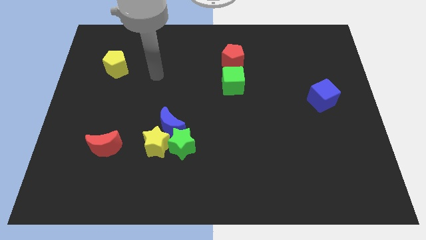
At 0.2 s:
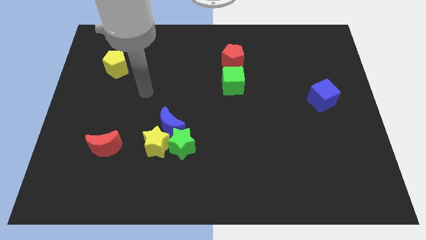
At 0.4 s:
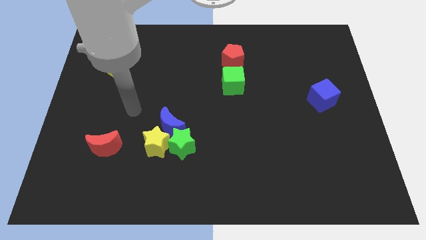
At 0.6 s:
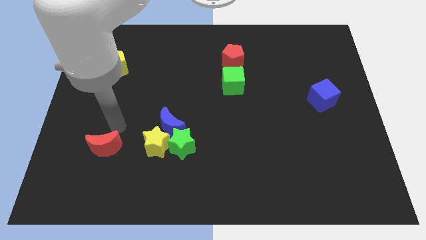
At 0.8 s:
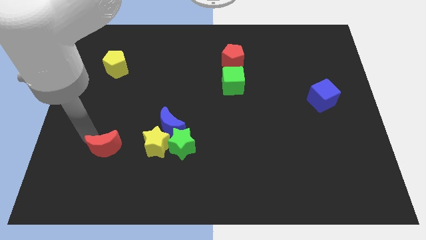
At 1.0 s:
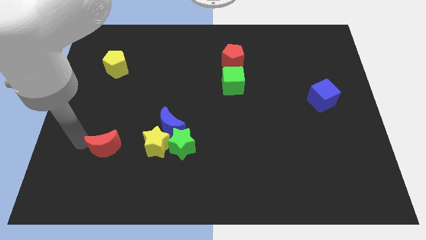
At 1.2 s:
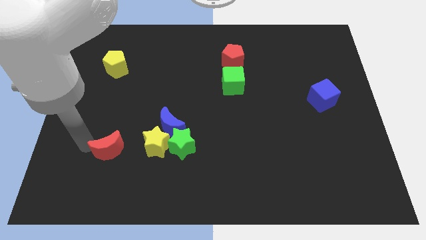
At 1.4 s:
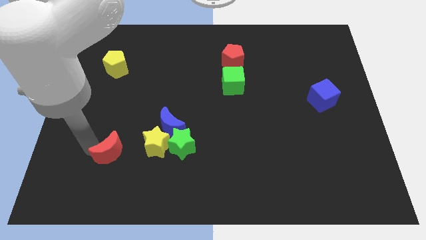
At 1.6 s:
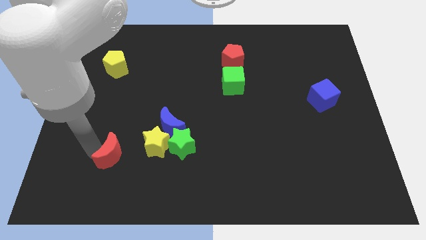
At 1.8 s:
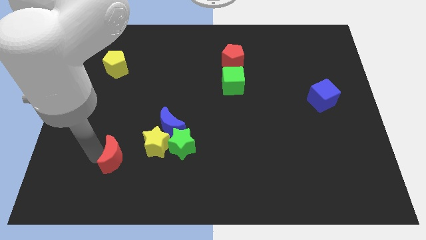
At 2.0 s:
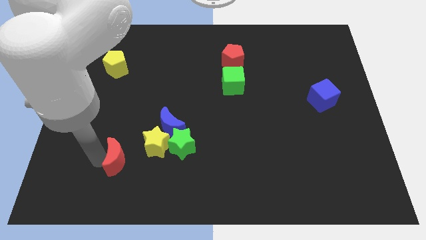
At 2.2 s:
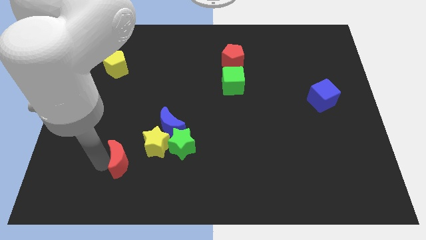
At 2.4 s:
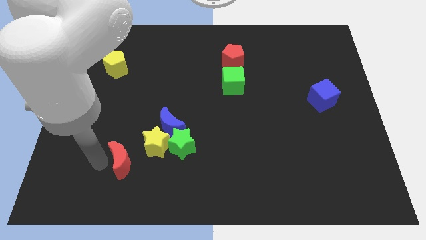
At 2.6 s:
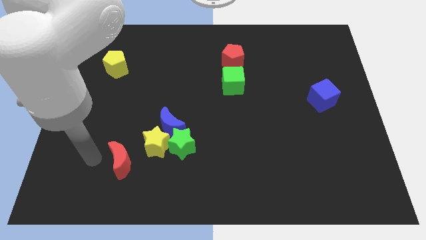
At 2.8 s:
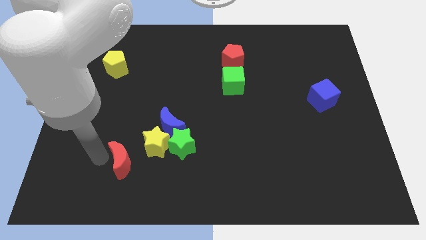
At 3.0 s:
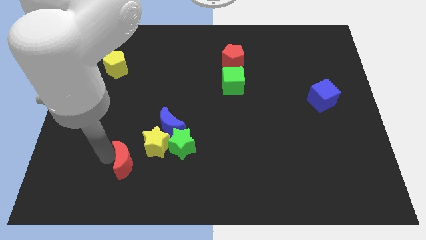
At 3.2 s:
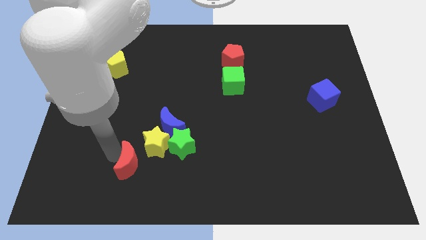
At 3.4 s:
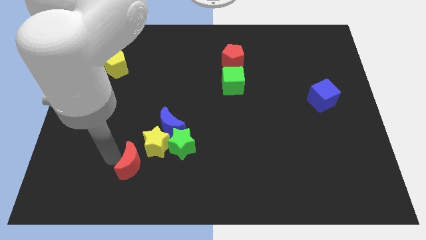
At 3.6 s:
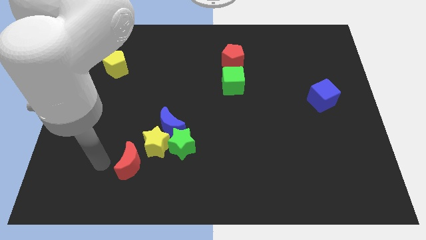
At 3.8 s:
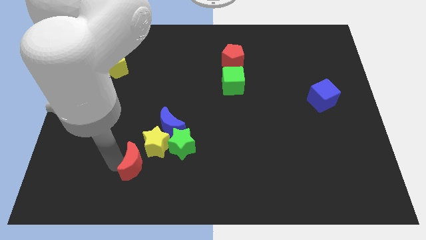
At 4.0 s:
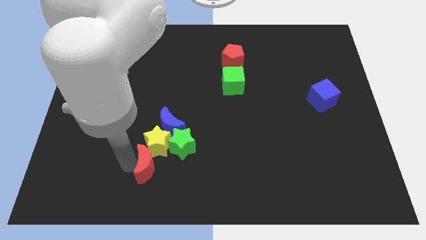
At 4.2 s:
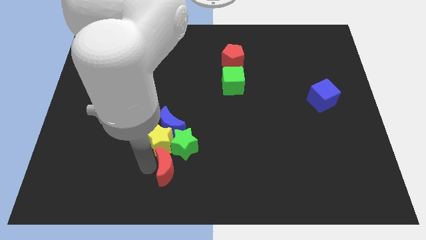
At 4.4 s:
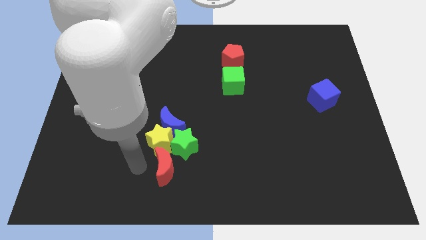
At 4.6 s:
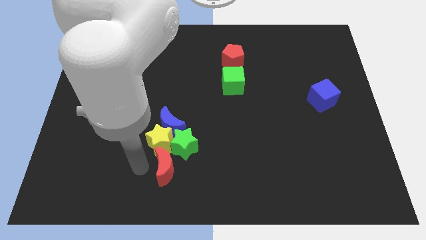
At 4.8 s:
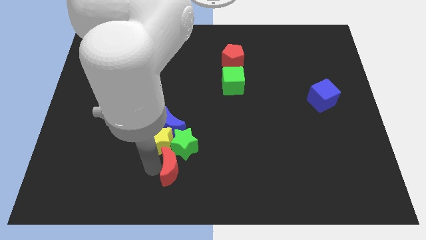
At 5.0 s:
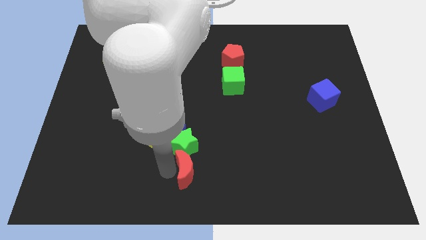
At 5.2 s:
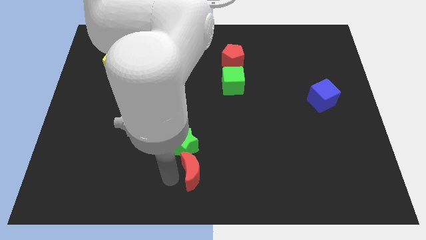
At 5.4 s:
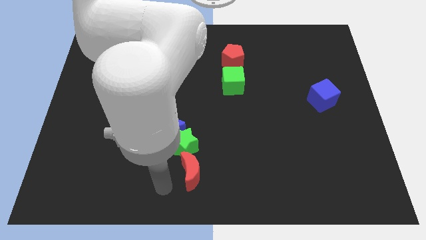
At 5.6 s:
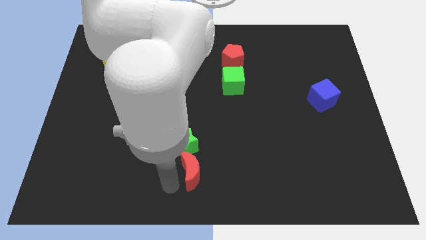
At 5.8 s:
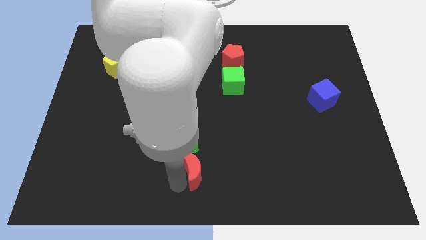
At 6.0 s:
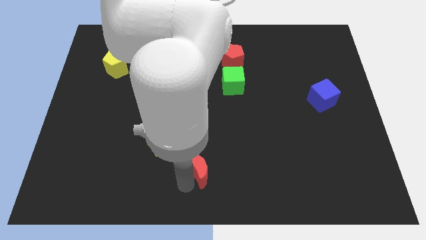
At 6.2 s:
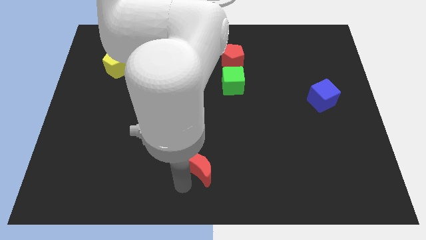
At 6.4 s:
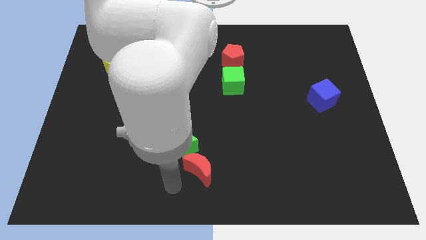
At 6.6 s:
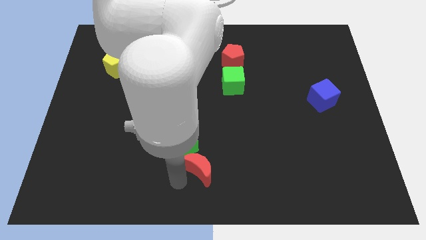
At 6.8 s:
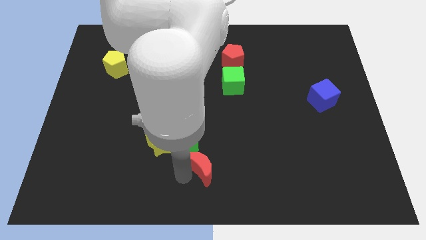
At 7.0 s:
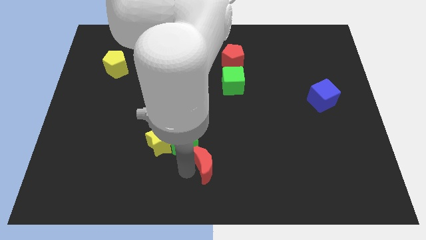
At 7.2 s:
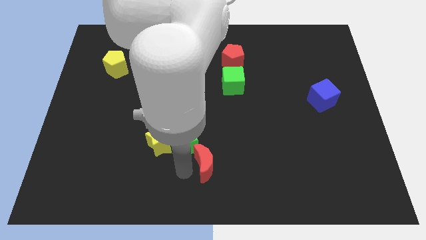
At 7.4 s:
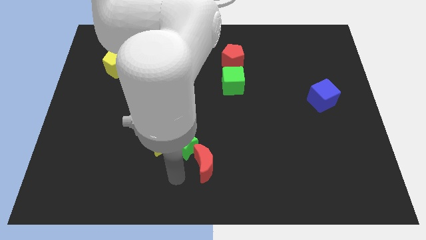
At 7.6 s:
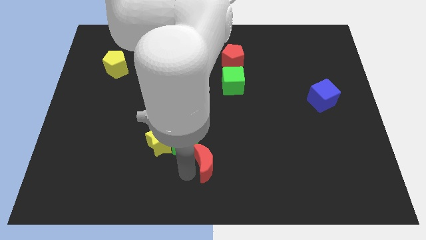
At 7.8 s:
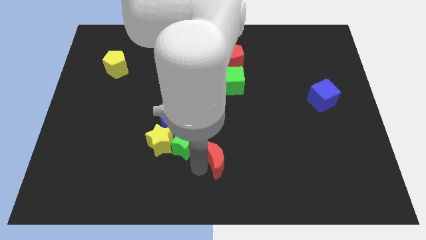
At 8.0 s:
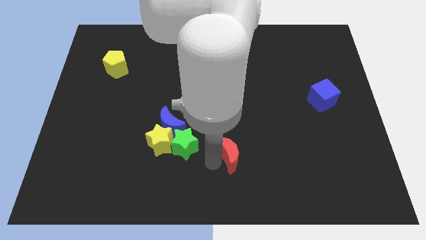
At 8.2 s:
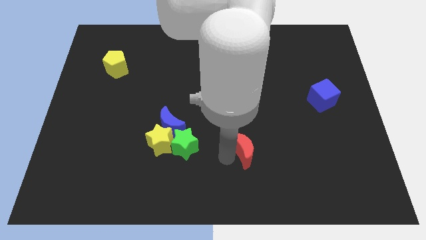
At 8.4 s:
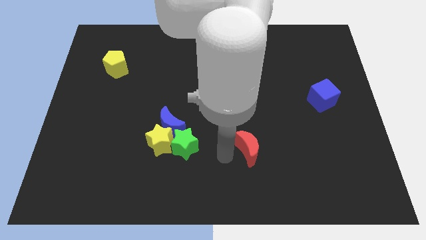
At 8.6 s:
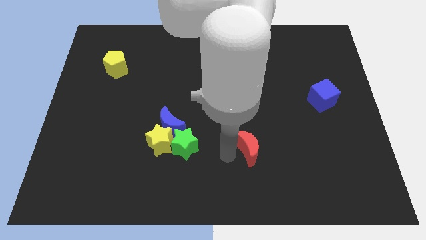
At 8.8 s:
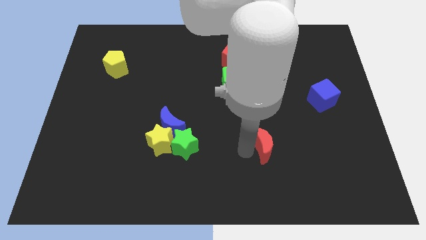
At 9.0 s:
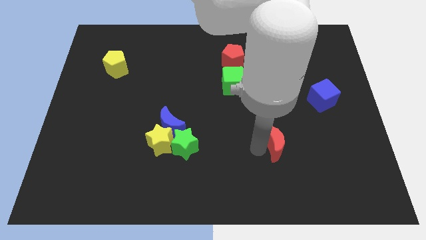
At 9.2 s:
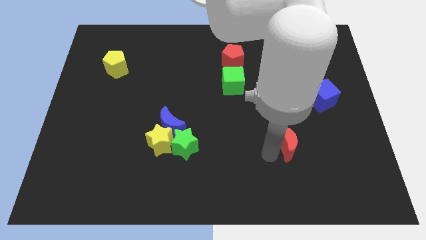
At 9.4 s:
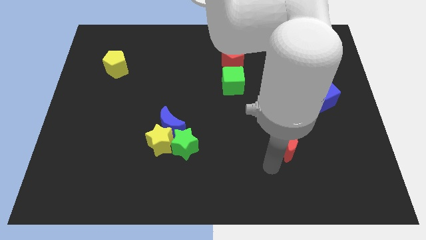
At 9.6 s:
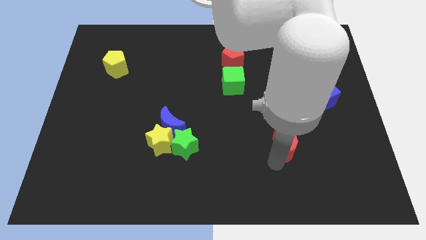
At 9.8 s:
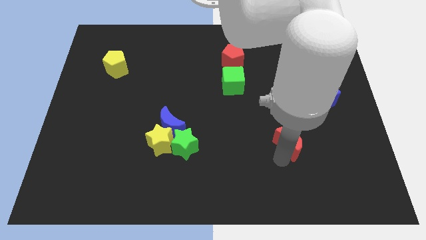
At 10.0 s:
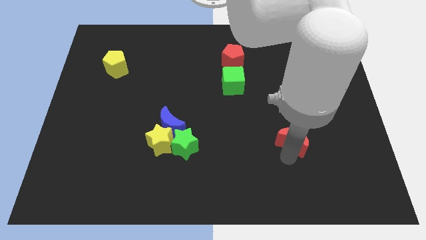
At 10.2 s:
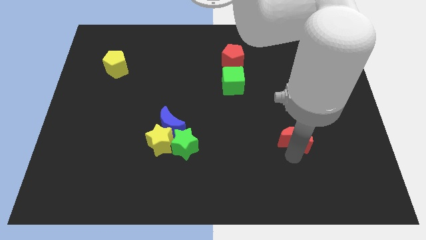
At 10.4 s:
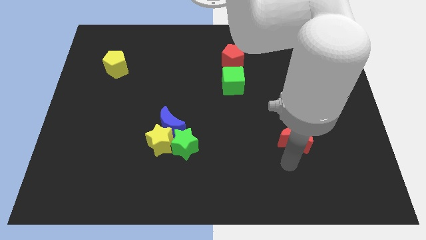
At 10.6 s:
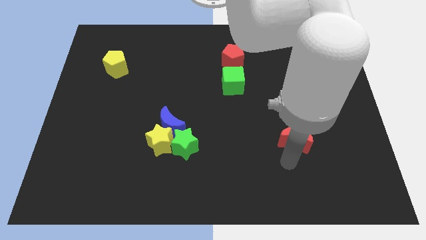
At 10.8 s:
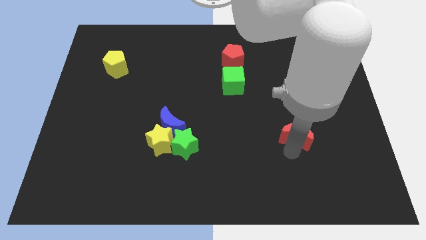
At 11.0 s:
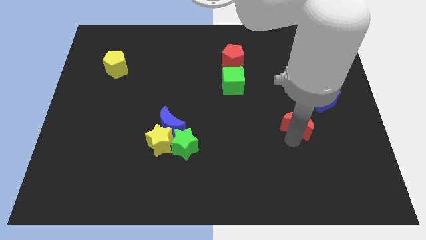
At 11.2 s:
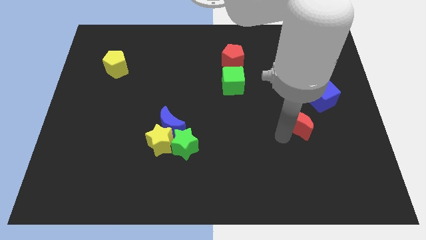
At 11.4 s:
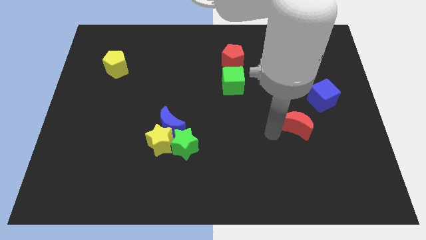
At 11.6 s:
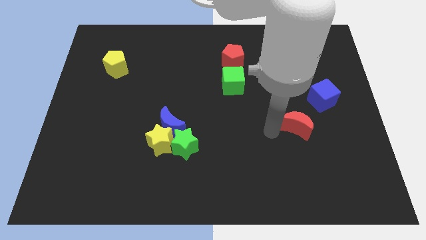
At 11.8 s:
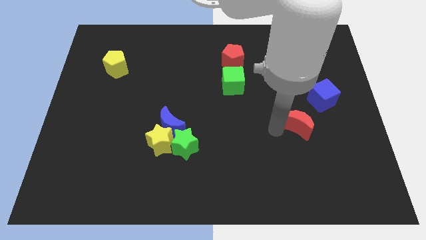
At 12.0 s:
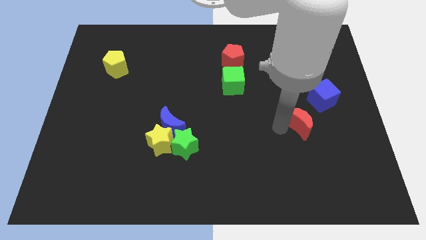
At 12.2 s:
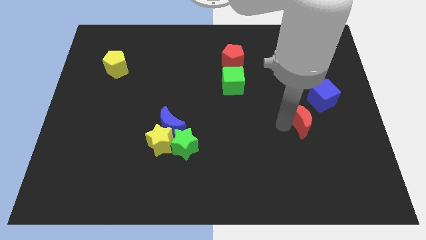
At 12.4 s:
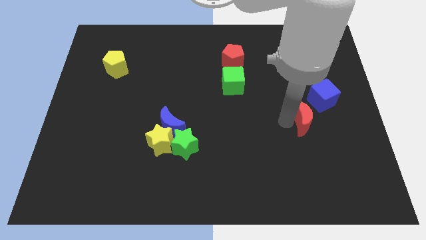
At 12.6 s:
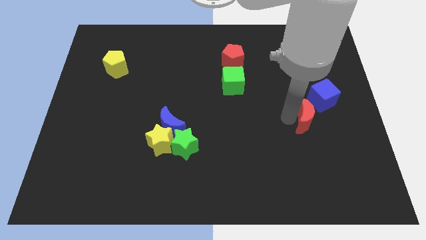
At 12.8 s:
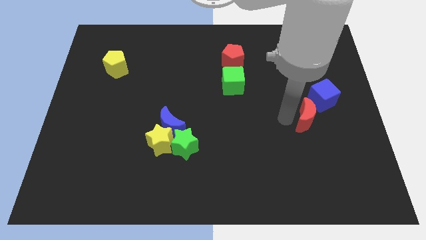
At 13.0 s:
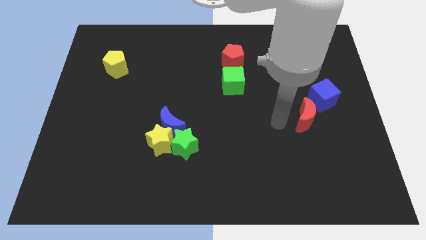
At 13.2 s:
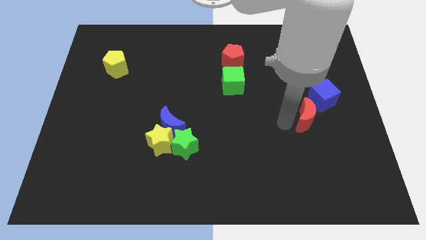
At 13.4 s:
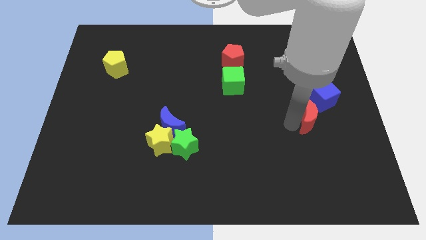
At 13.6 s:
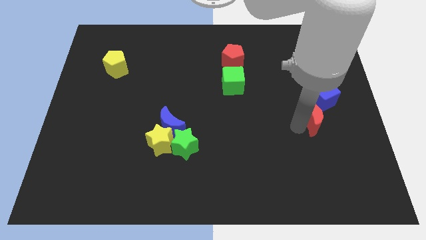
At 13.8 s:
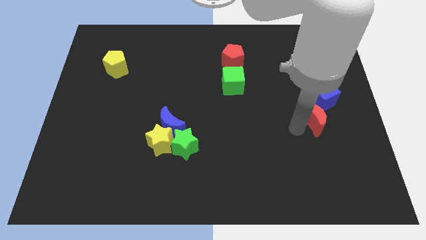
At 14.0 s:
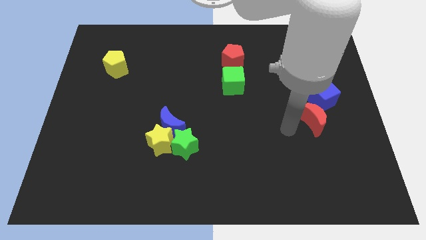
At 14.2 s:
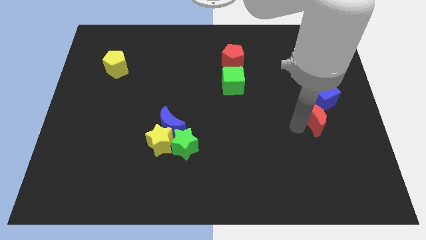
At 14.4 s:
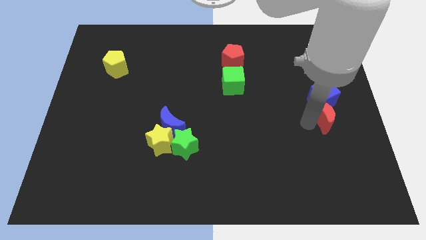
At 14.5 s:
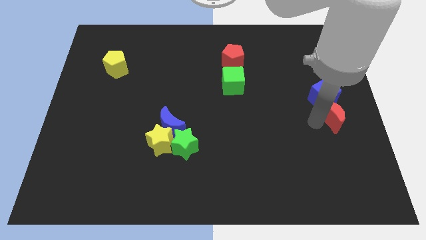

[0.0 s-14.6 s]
slide the red moon to the right side of the board
